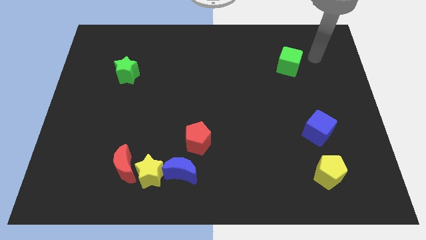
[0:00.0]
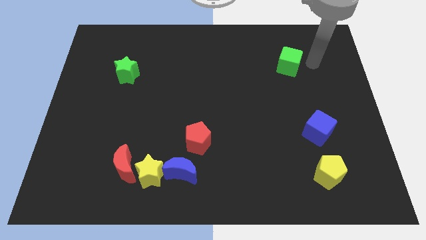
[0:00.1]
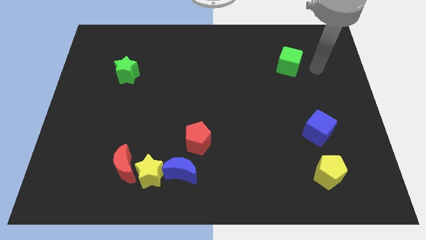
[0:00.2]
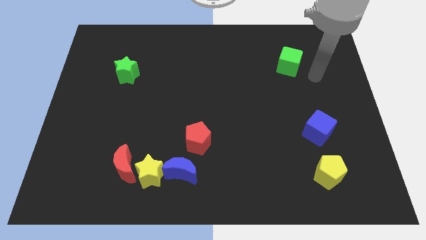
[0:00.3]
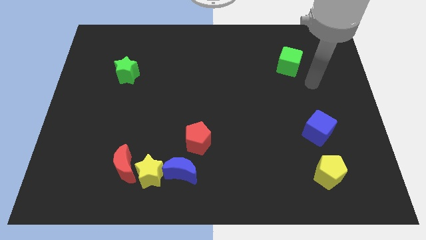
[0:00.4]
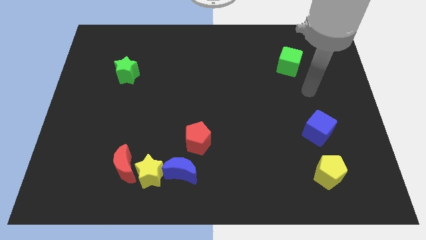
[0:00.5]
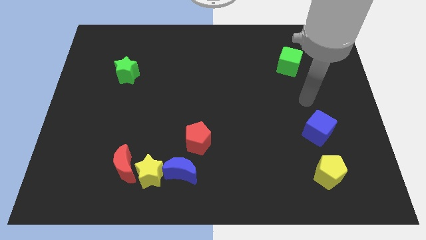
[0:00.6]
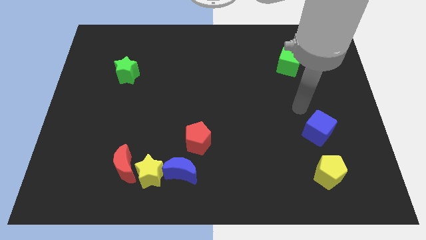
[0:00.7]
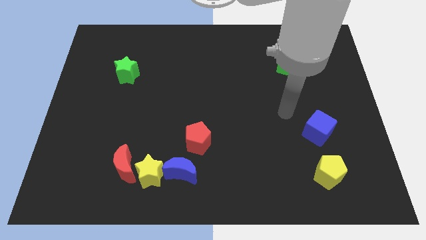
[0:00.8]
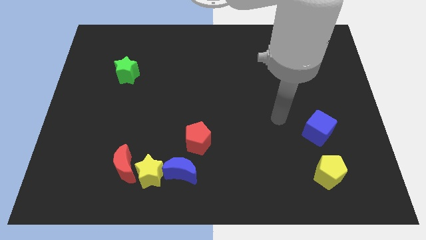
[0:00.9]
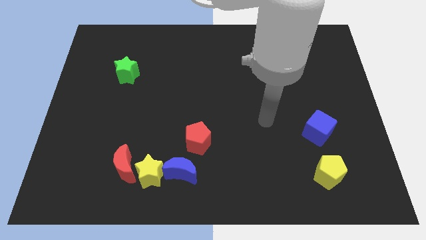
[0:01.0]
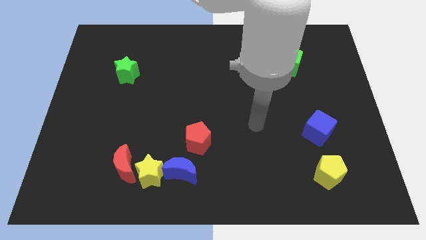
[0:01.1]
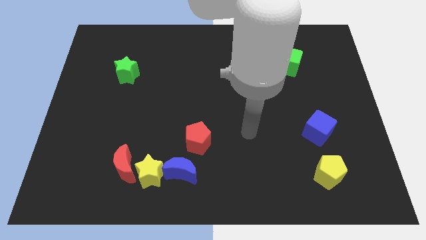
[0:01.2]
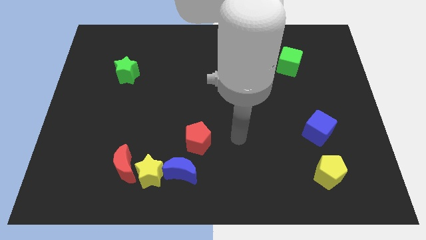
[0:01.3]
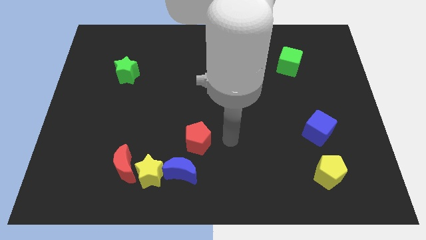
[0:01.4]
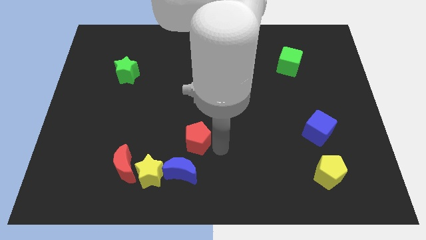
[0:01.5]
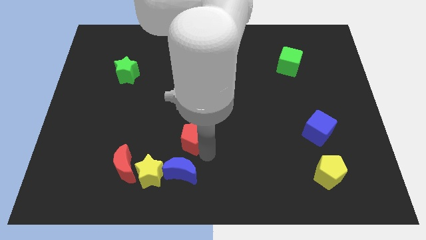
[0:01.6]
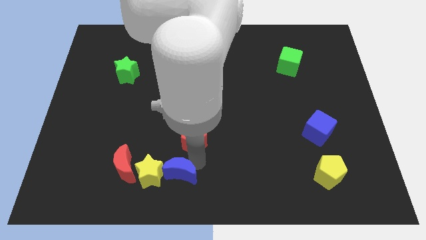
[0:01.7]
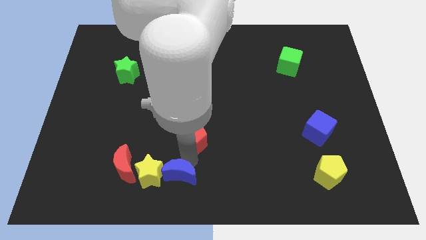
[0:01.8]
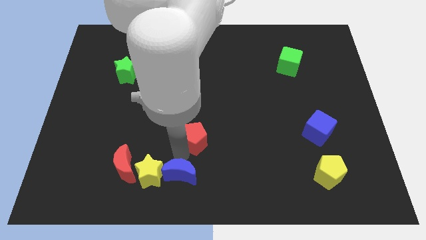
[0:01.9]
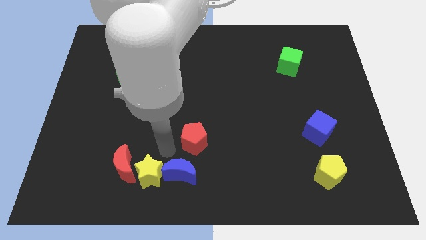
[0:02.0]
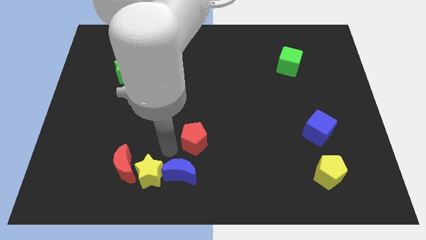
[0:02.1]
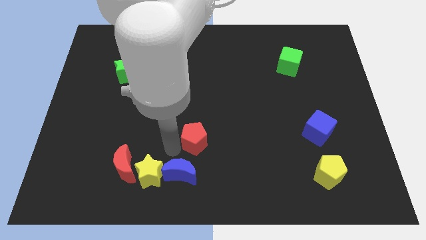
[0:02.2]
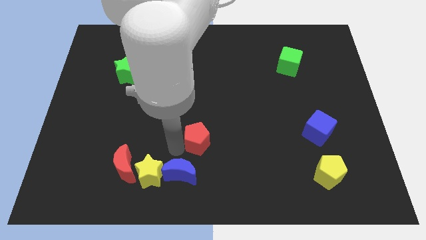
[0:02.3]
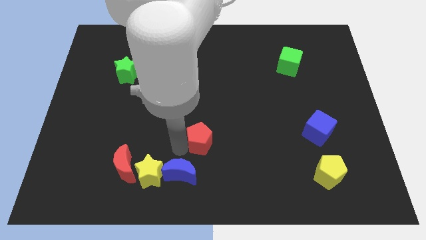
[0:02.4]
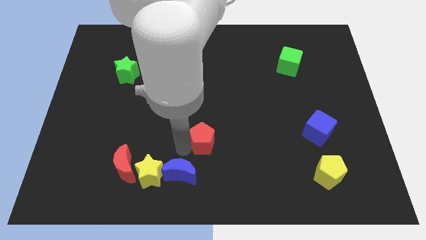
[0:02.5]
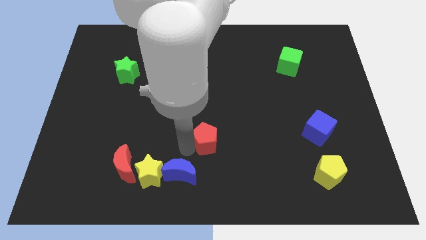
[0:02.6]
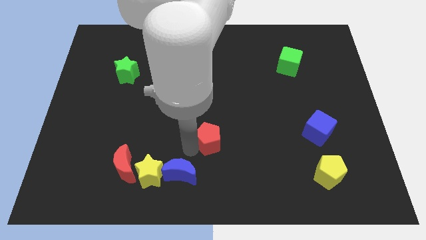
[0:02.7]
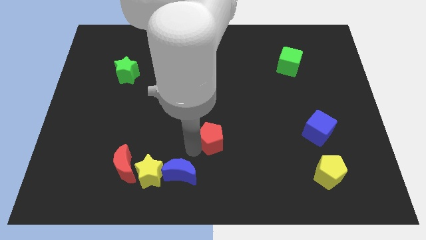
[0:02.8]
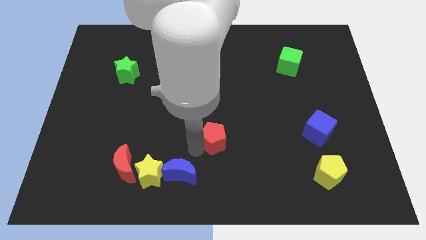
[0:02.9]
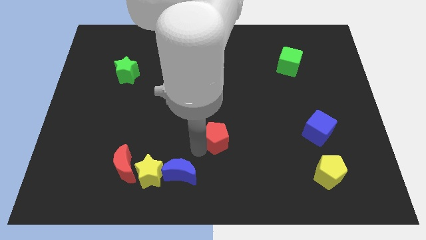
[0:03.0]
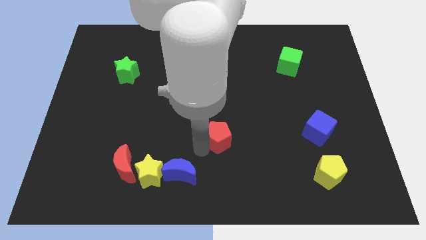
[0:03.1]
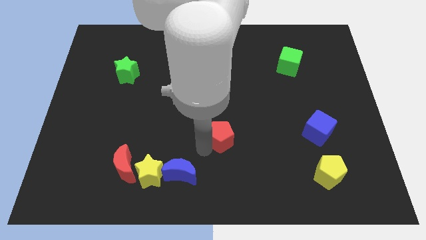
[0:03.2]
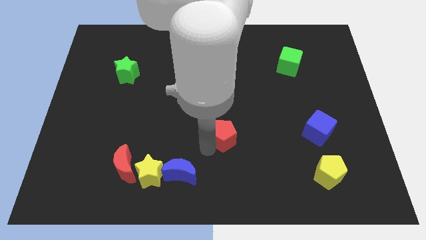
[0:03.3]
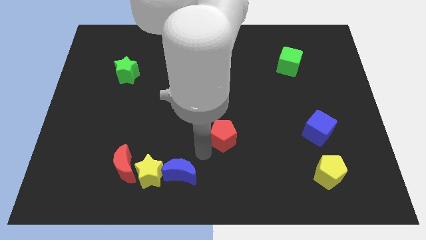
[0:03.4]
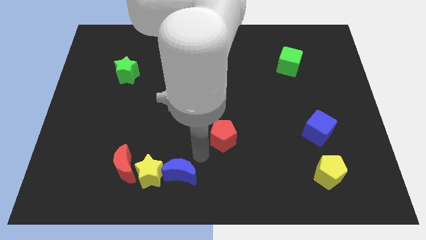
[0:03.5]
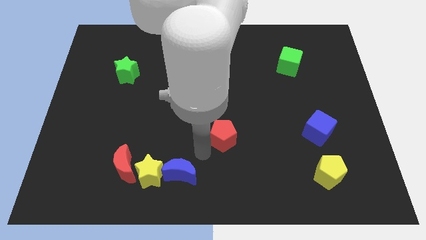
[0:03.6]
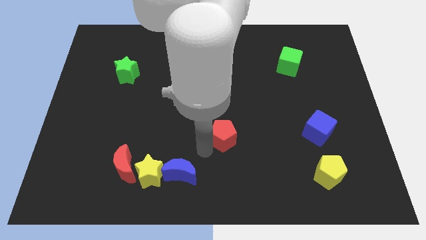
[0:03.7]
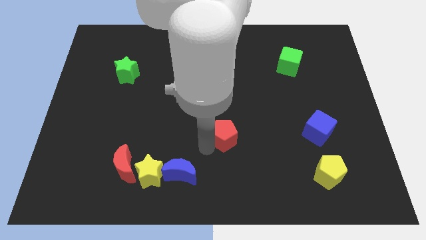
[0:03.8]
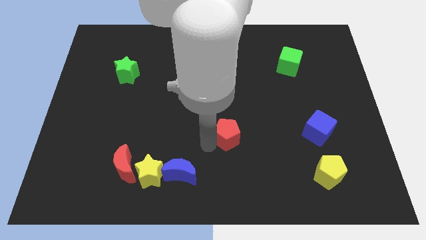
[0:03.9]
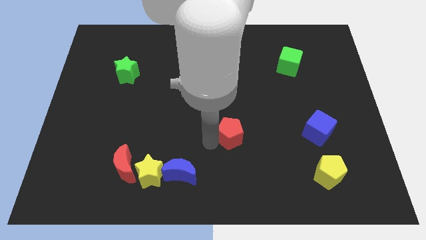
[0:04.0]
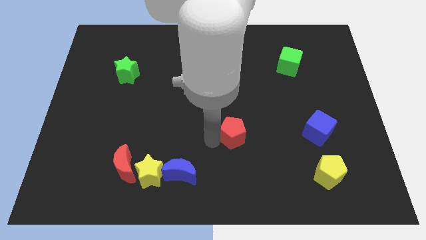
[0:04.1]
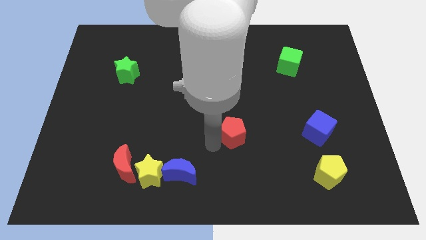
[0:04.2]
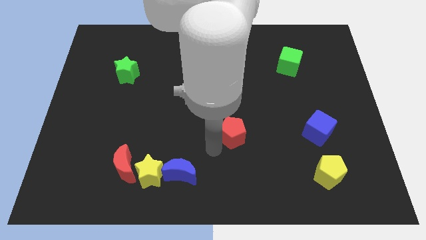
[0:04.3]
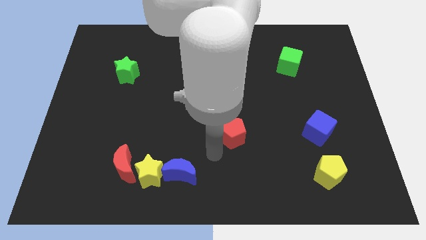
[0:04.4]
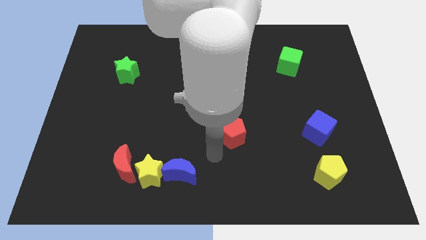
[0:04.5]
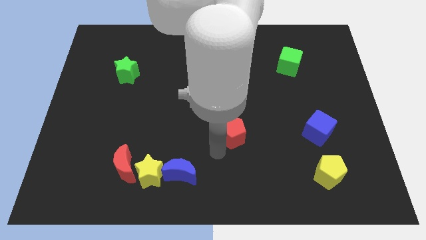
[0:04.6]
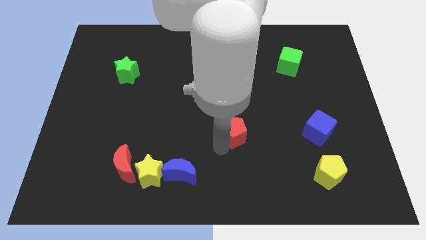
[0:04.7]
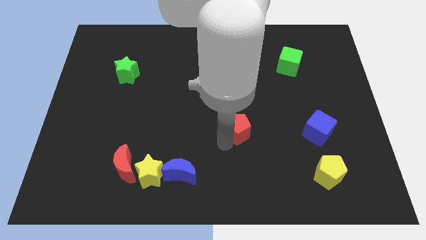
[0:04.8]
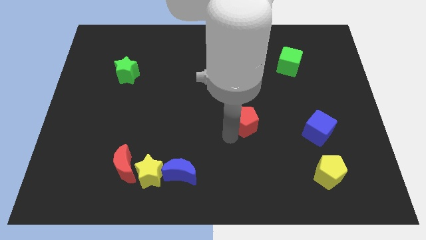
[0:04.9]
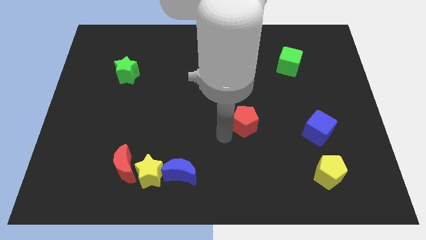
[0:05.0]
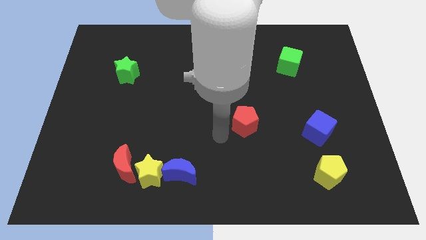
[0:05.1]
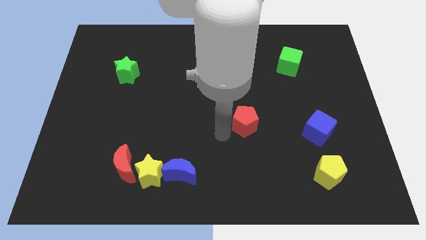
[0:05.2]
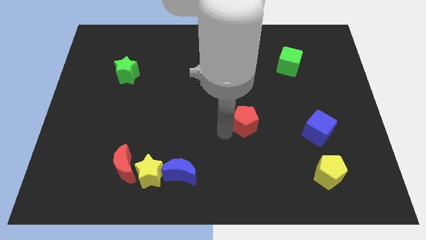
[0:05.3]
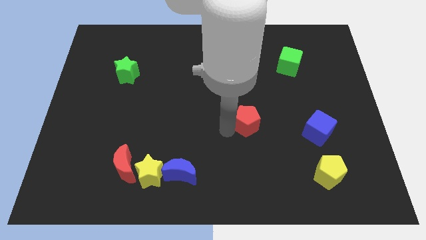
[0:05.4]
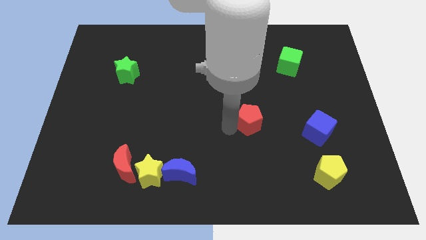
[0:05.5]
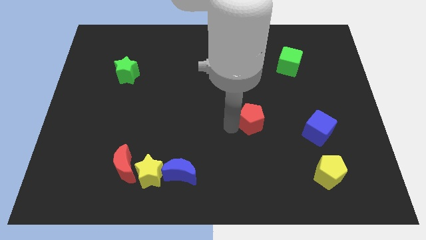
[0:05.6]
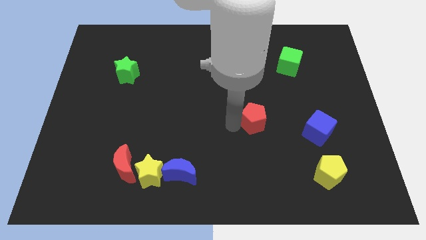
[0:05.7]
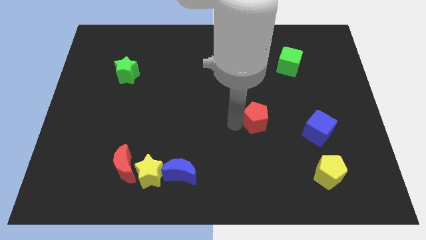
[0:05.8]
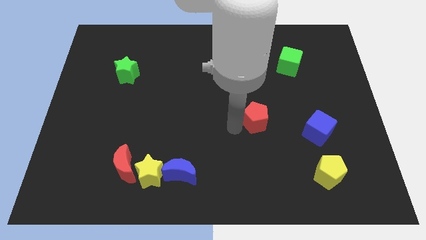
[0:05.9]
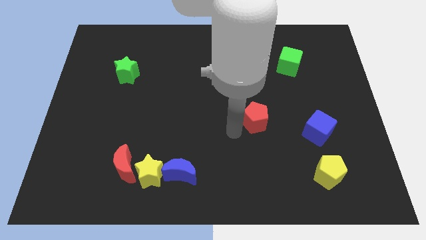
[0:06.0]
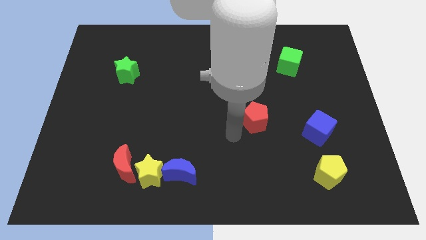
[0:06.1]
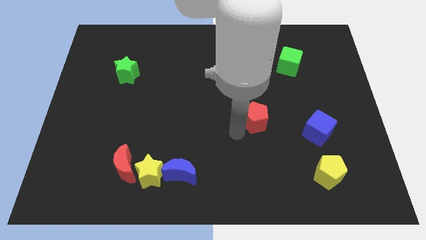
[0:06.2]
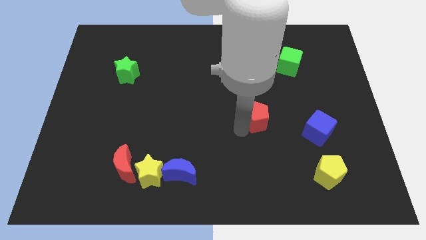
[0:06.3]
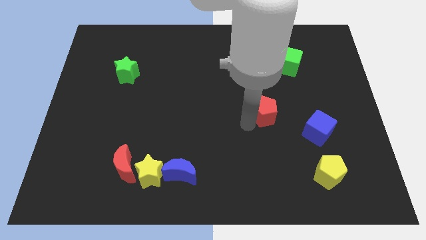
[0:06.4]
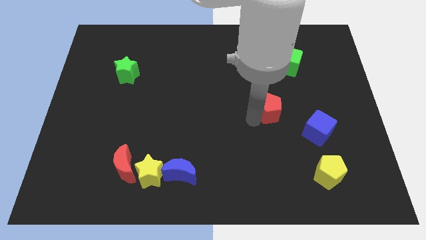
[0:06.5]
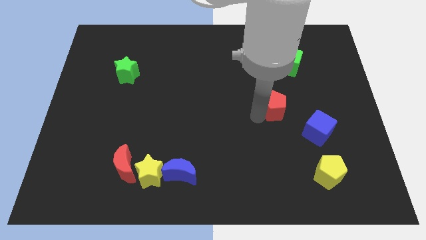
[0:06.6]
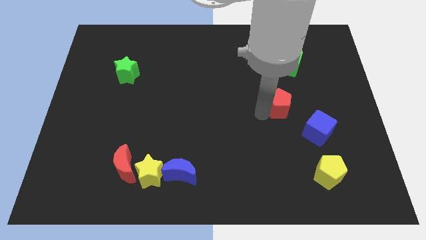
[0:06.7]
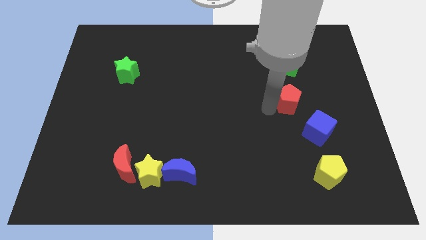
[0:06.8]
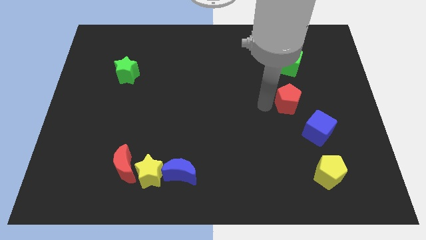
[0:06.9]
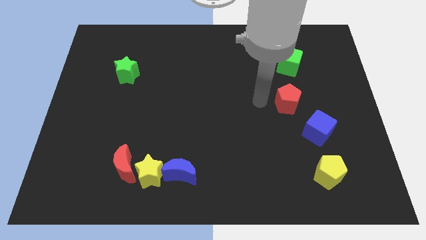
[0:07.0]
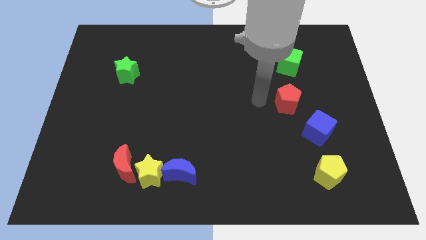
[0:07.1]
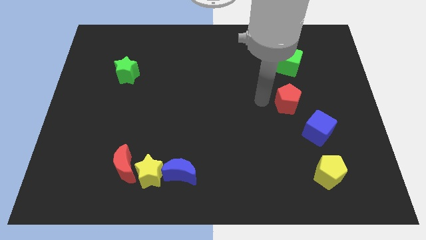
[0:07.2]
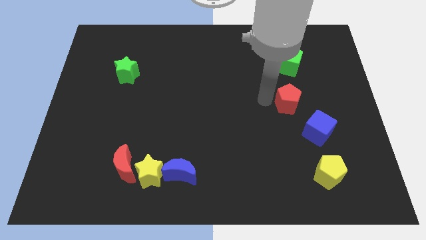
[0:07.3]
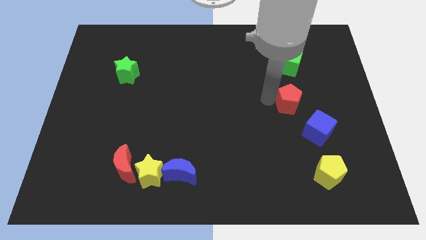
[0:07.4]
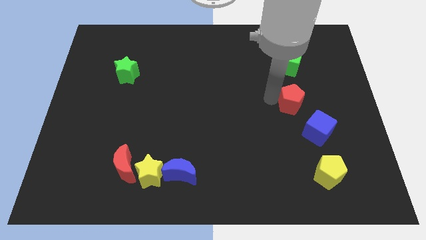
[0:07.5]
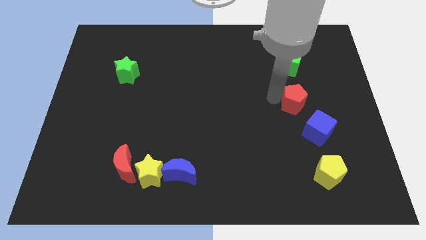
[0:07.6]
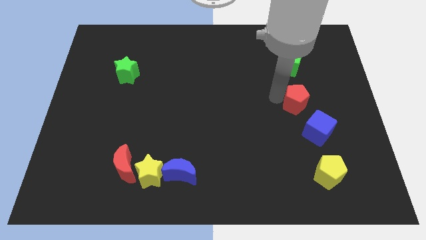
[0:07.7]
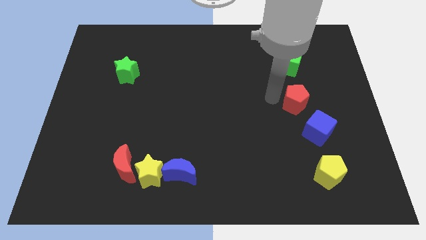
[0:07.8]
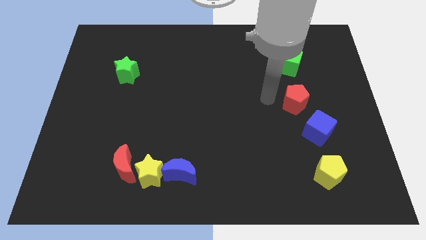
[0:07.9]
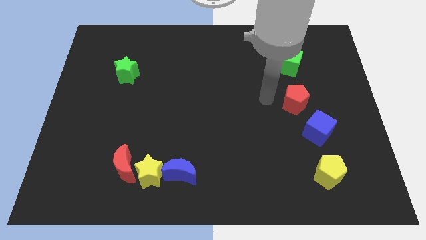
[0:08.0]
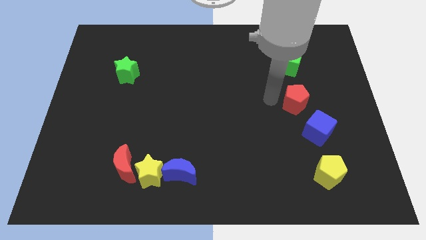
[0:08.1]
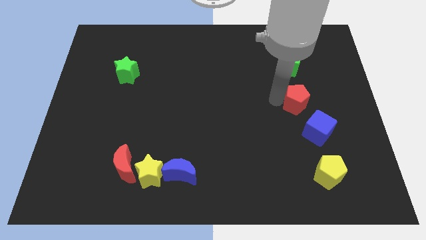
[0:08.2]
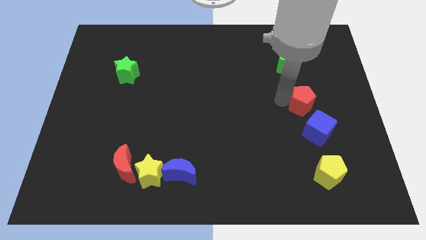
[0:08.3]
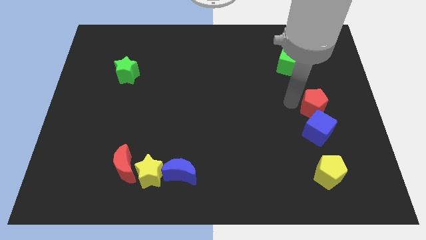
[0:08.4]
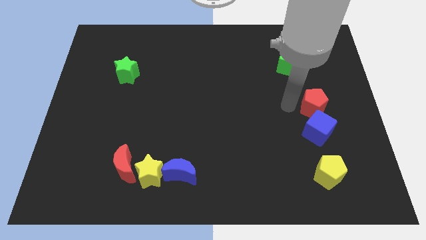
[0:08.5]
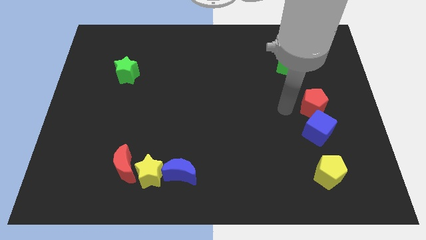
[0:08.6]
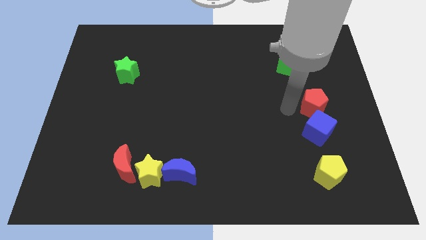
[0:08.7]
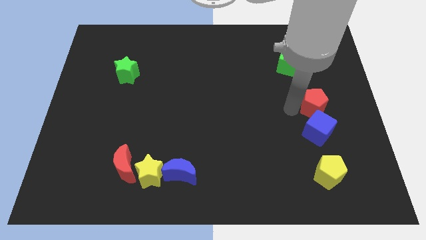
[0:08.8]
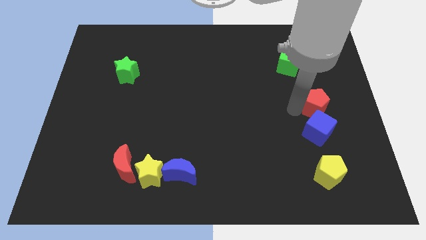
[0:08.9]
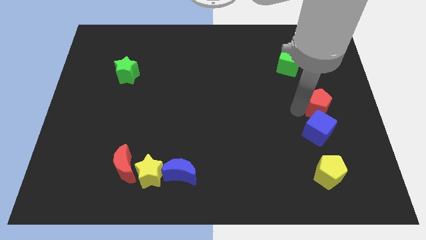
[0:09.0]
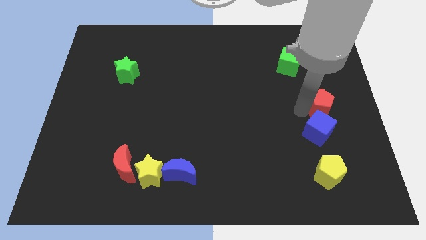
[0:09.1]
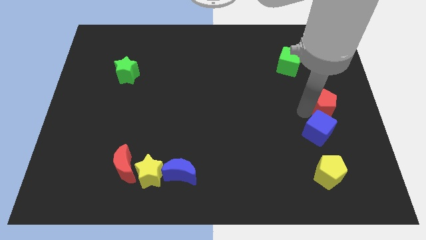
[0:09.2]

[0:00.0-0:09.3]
slide the red pentagon to the center right
